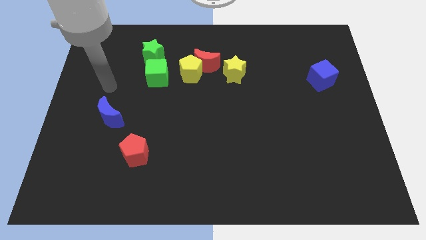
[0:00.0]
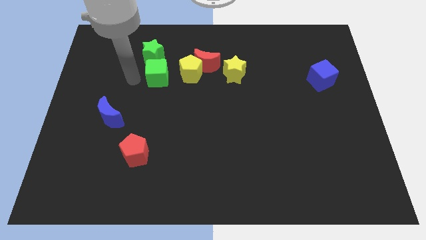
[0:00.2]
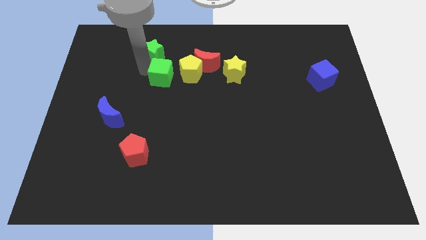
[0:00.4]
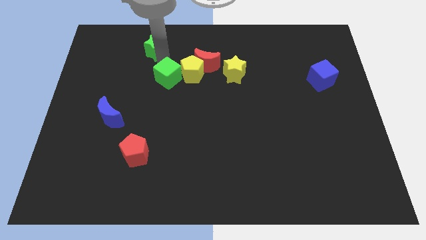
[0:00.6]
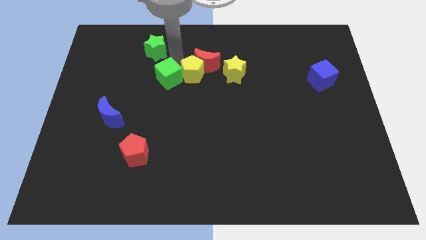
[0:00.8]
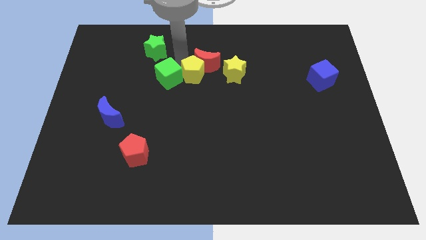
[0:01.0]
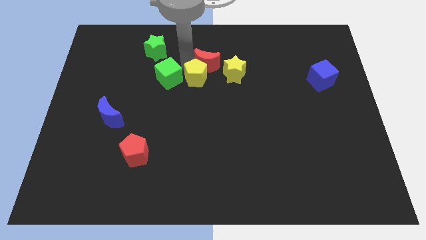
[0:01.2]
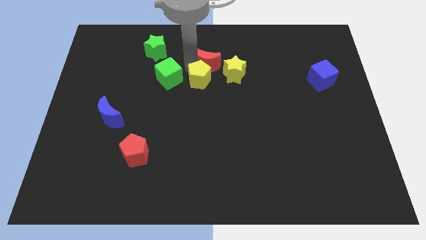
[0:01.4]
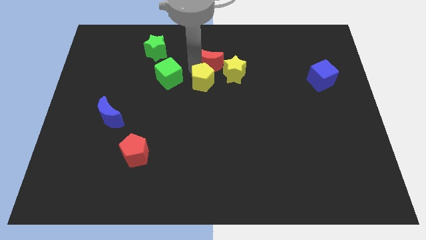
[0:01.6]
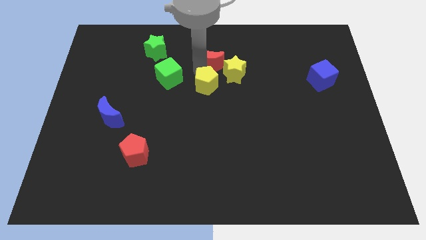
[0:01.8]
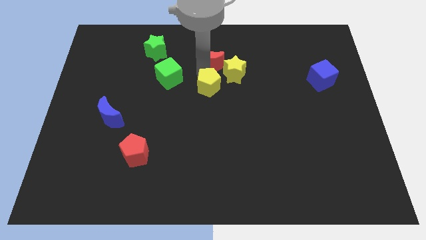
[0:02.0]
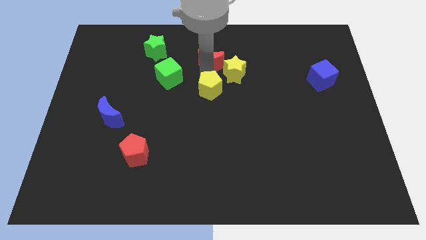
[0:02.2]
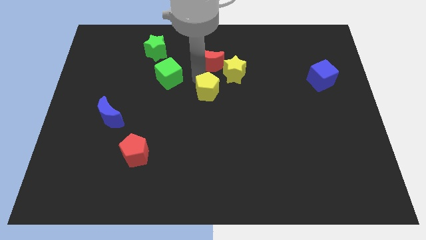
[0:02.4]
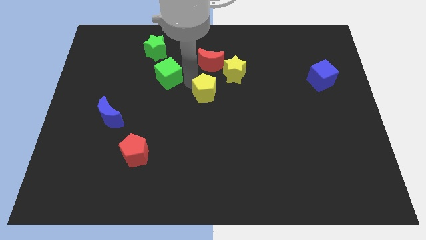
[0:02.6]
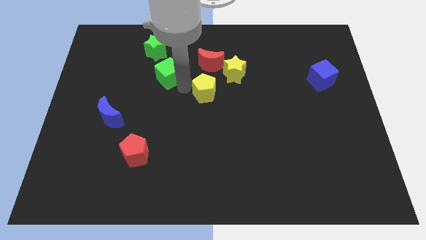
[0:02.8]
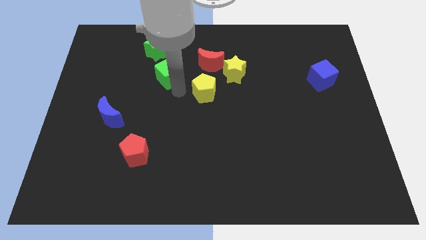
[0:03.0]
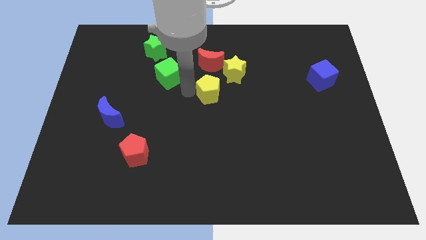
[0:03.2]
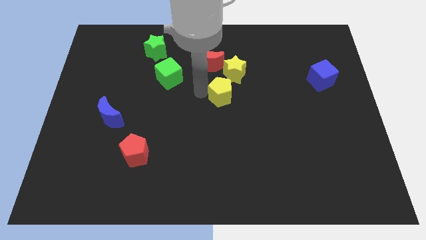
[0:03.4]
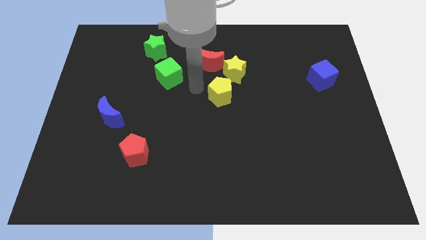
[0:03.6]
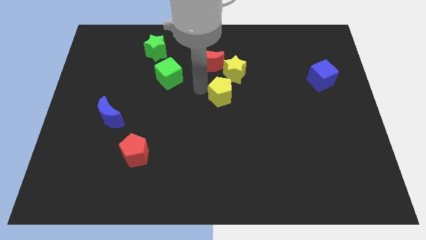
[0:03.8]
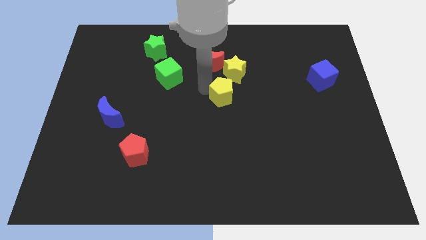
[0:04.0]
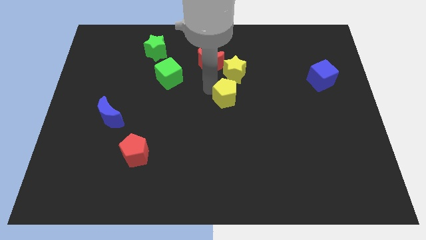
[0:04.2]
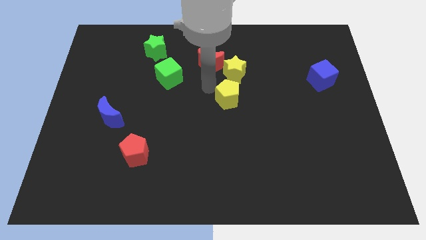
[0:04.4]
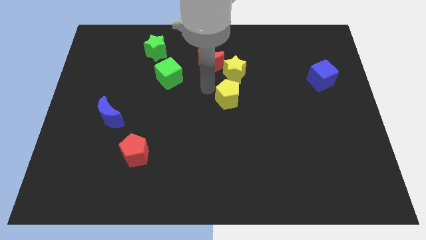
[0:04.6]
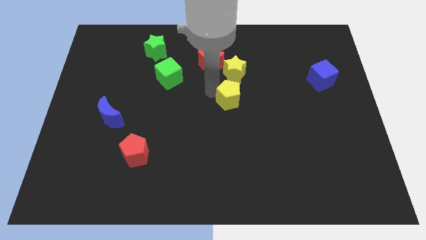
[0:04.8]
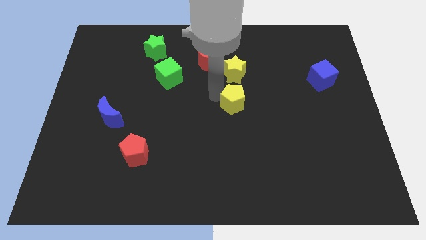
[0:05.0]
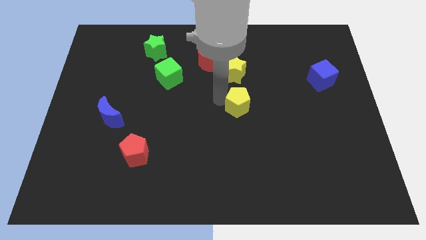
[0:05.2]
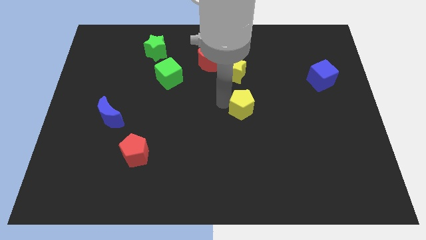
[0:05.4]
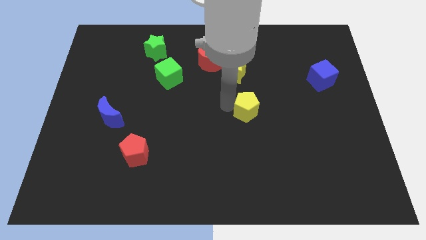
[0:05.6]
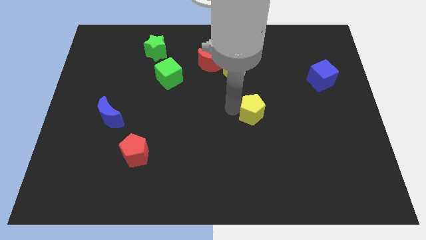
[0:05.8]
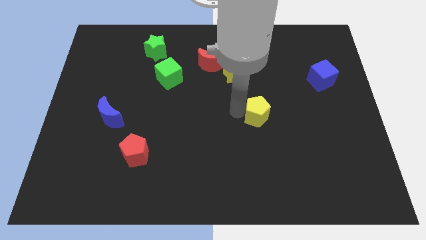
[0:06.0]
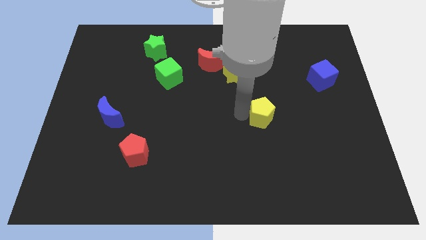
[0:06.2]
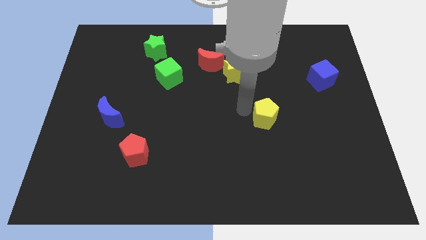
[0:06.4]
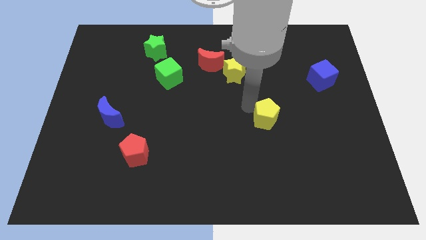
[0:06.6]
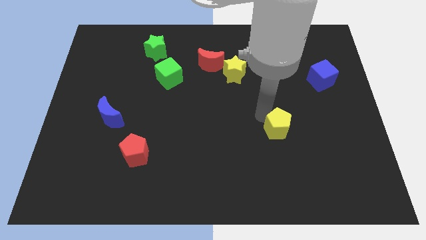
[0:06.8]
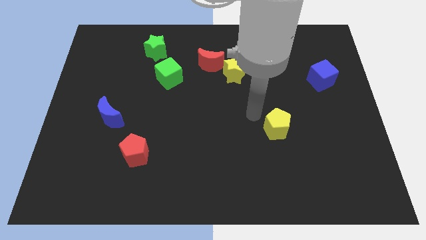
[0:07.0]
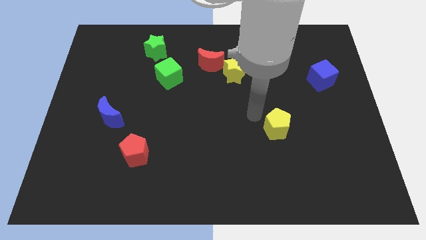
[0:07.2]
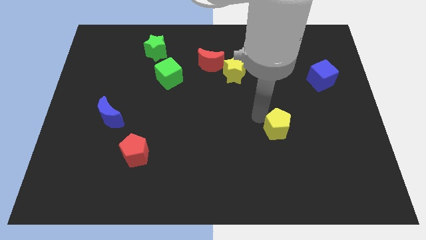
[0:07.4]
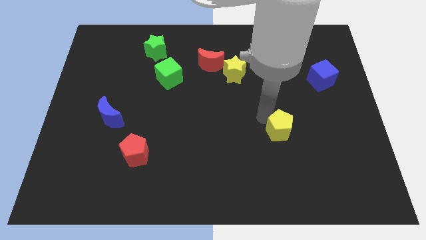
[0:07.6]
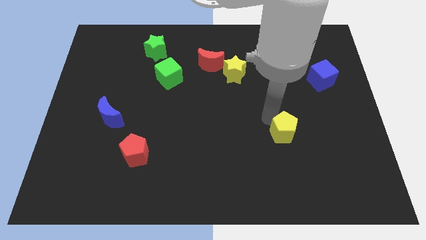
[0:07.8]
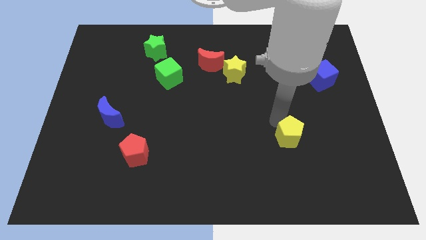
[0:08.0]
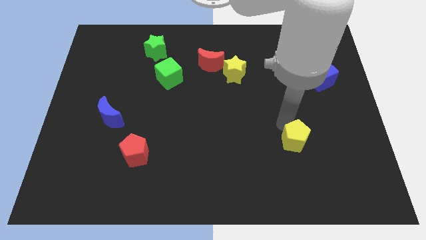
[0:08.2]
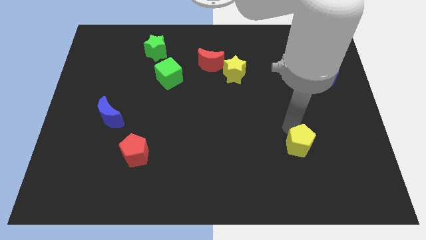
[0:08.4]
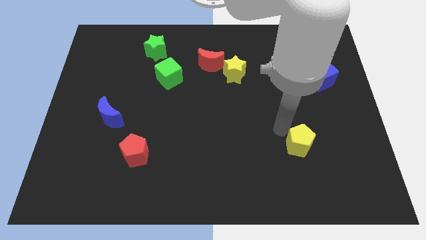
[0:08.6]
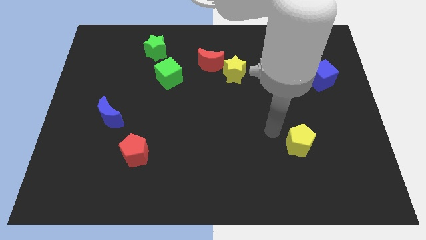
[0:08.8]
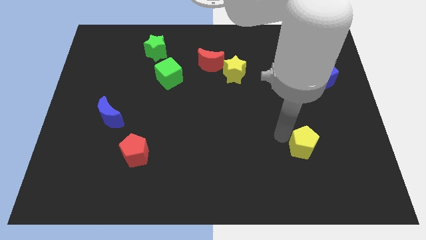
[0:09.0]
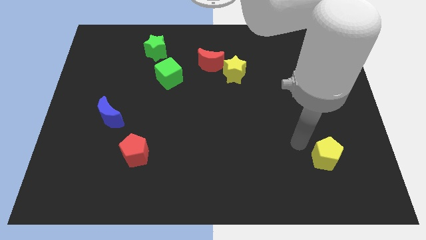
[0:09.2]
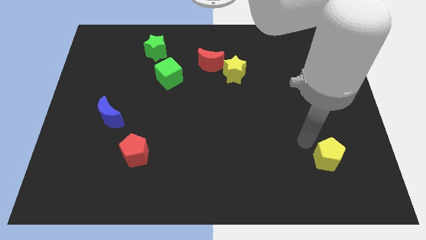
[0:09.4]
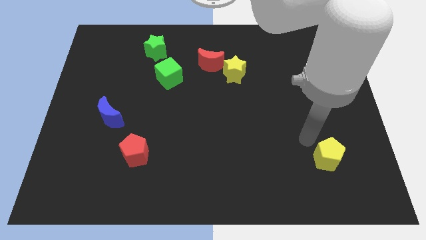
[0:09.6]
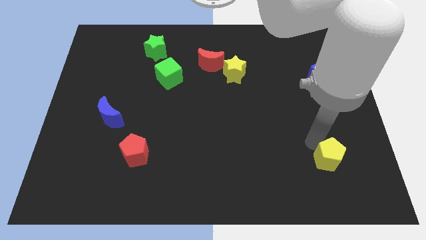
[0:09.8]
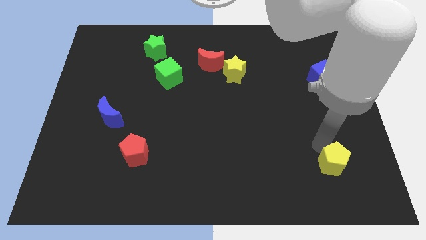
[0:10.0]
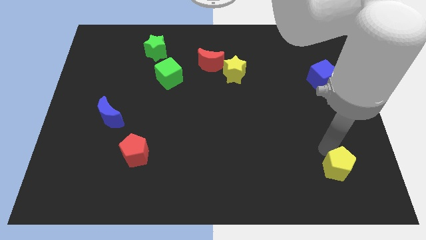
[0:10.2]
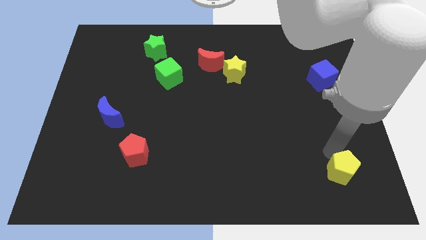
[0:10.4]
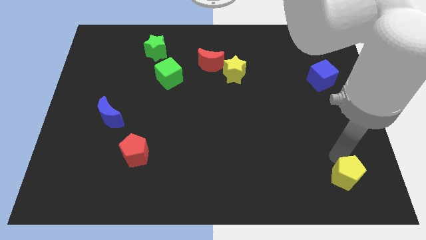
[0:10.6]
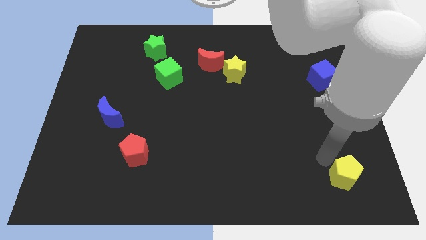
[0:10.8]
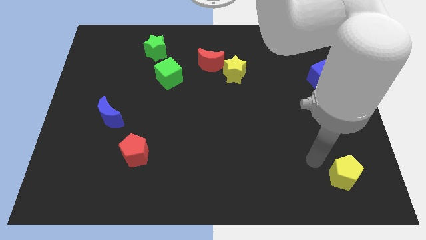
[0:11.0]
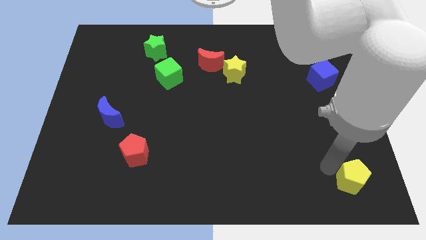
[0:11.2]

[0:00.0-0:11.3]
slide the yellow pentagon to the bottom right
